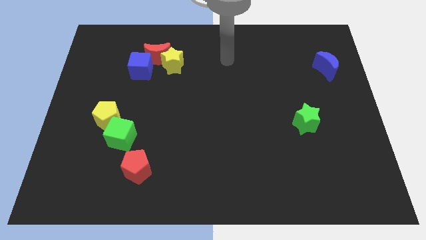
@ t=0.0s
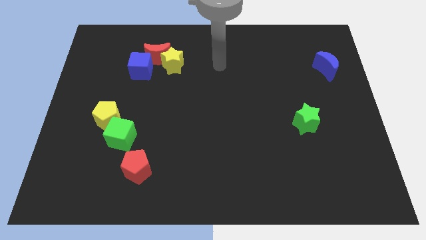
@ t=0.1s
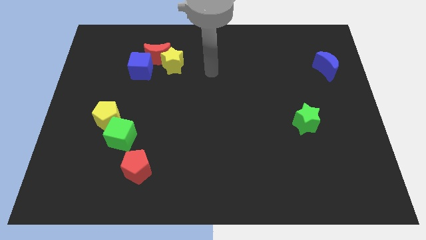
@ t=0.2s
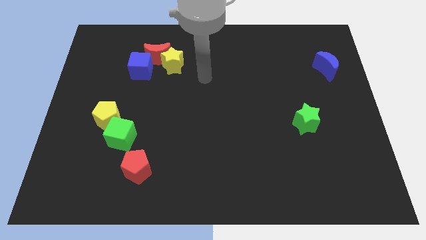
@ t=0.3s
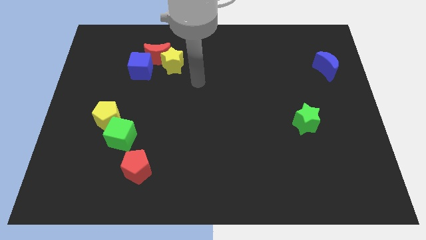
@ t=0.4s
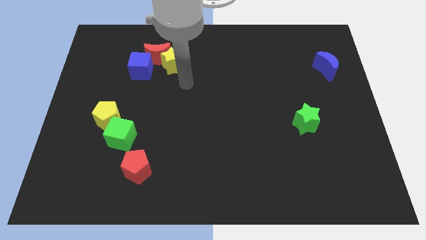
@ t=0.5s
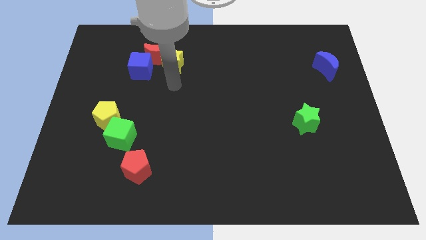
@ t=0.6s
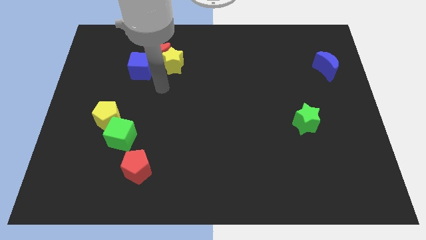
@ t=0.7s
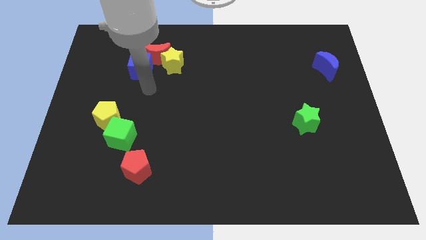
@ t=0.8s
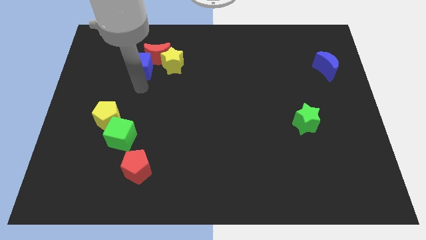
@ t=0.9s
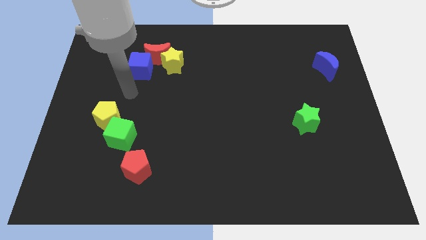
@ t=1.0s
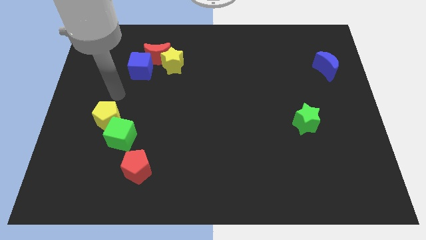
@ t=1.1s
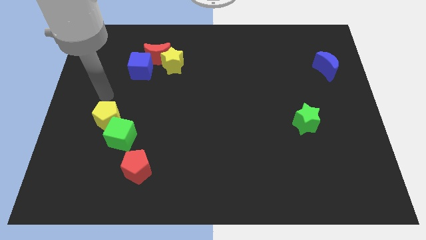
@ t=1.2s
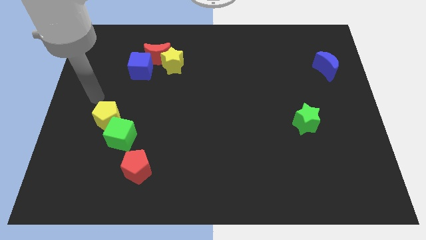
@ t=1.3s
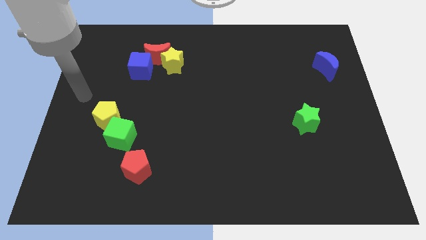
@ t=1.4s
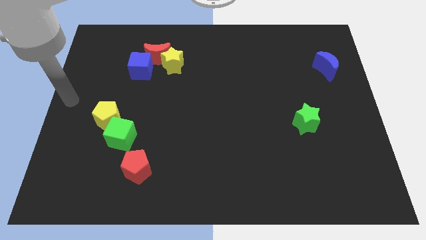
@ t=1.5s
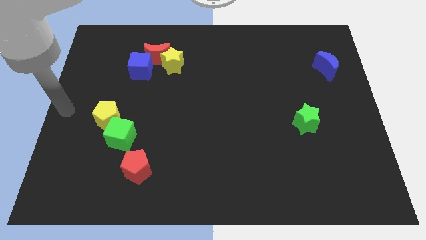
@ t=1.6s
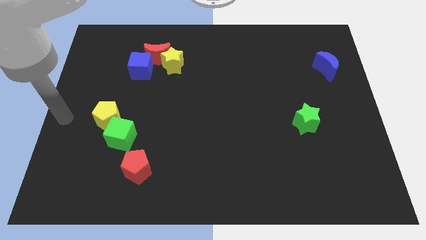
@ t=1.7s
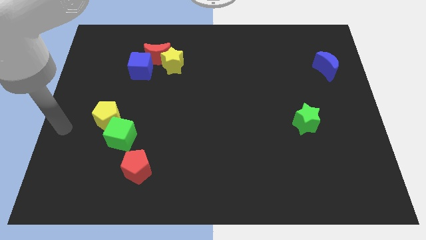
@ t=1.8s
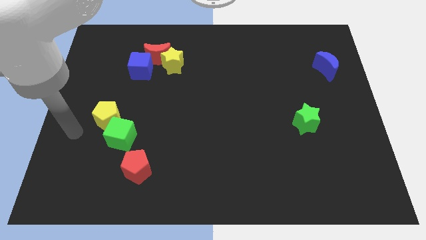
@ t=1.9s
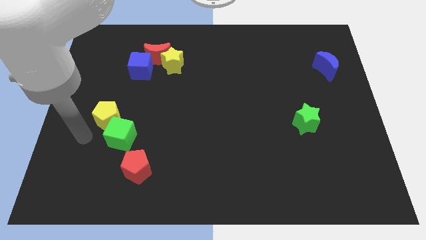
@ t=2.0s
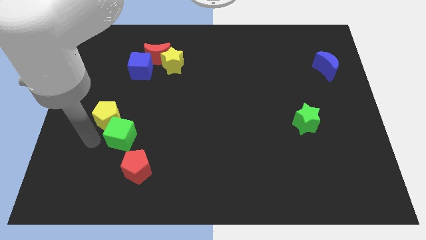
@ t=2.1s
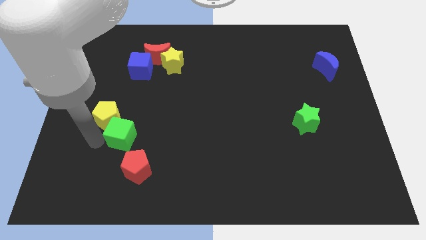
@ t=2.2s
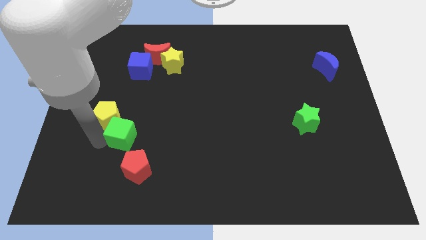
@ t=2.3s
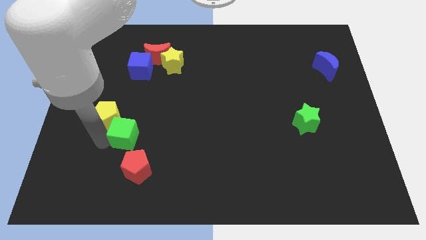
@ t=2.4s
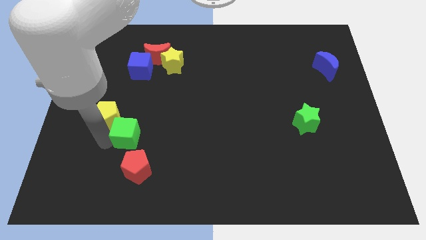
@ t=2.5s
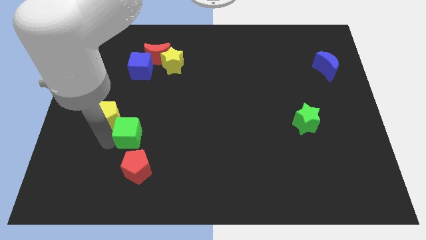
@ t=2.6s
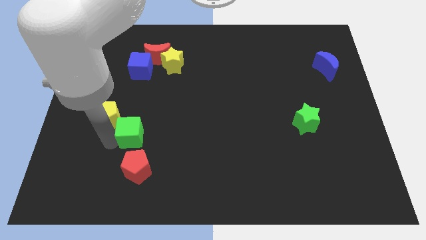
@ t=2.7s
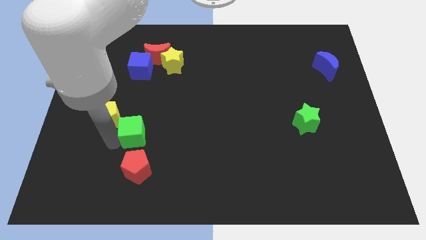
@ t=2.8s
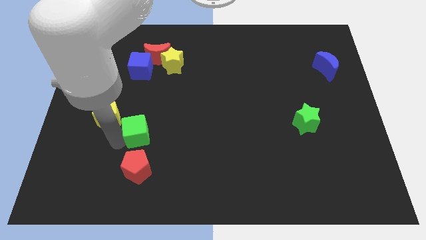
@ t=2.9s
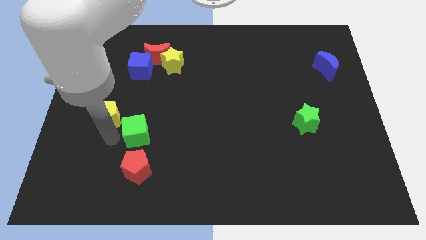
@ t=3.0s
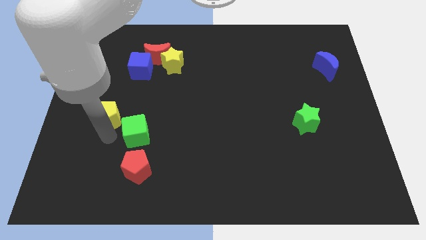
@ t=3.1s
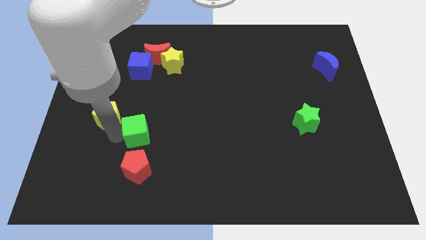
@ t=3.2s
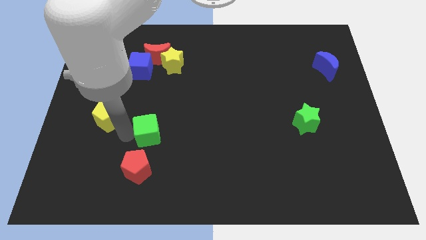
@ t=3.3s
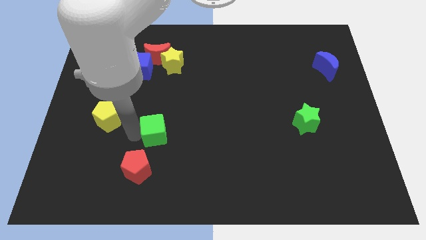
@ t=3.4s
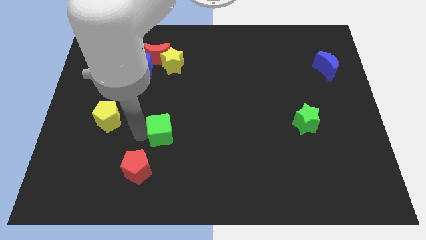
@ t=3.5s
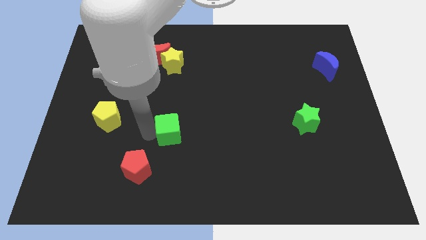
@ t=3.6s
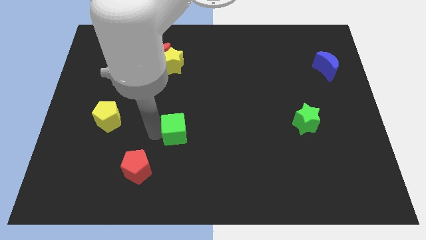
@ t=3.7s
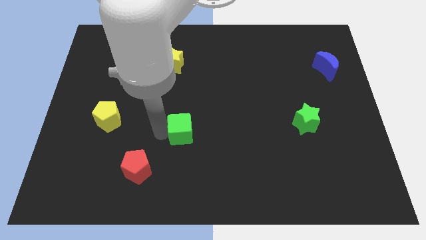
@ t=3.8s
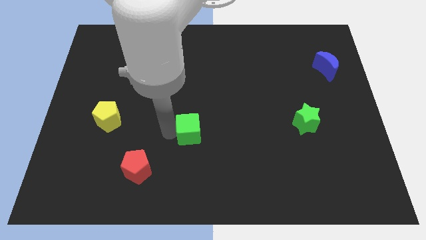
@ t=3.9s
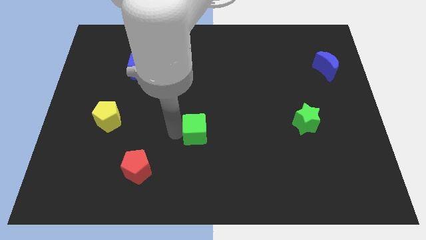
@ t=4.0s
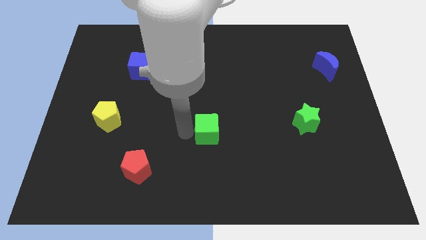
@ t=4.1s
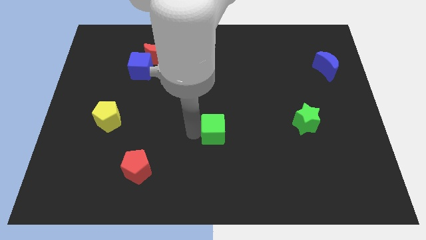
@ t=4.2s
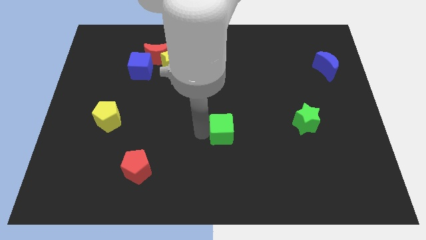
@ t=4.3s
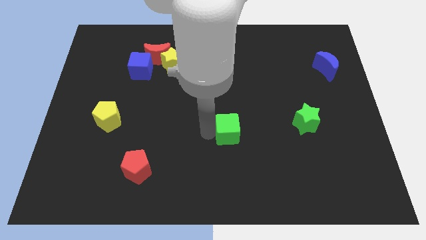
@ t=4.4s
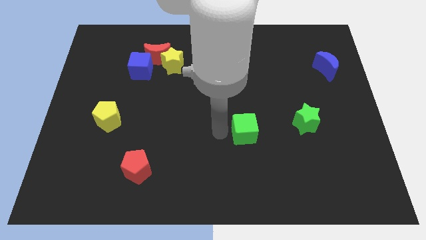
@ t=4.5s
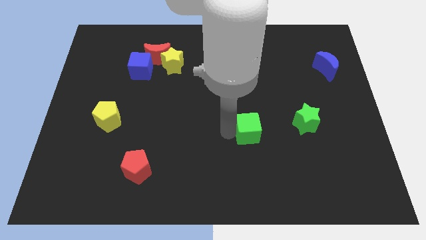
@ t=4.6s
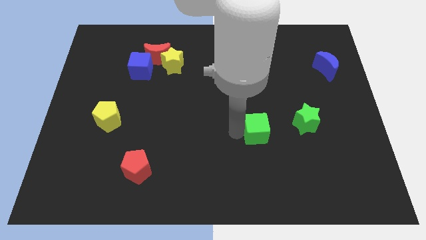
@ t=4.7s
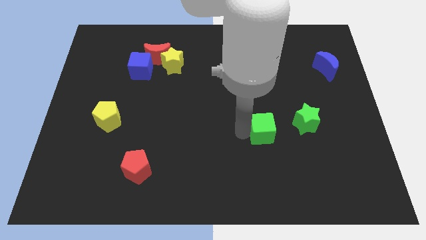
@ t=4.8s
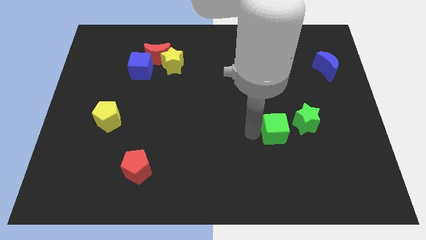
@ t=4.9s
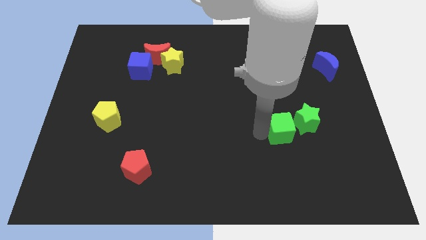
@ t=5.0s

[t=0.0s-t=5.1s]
move the green cube next to the green star
